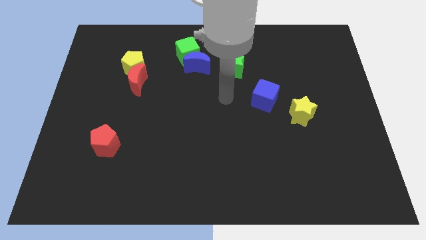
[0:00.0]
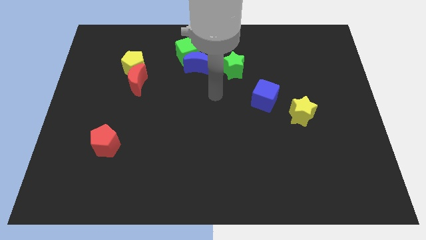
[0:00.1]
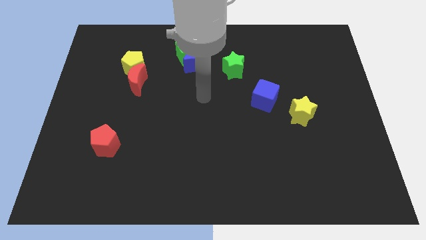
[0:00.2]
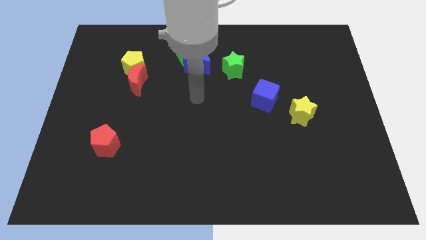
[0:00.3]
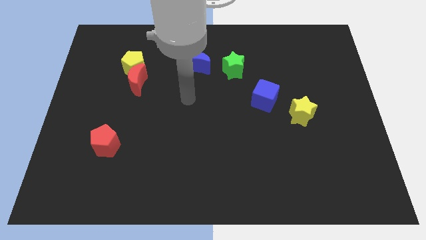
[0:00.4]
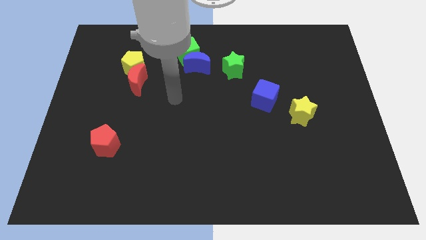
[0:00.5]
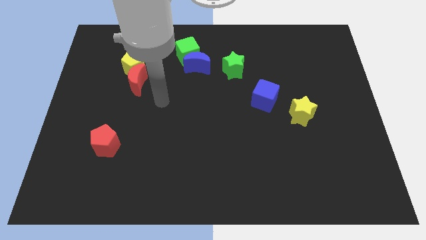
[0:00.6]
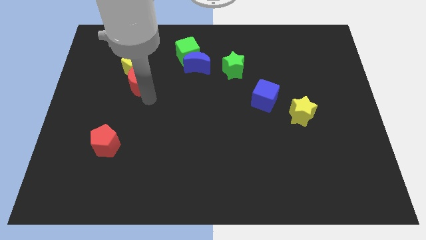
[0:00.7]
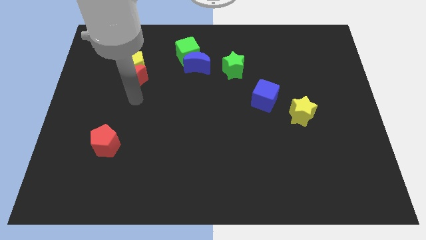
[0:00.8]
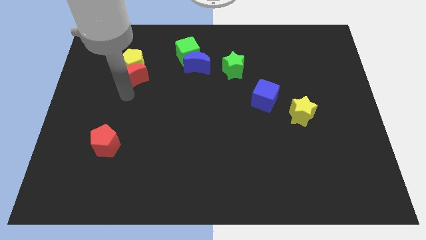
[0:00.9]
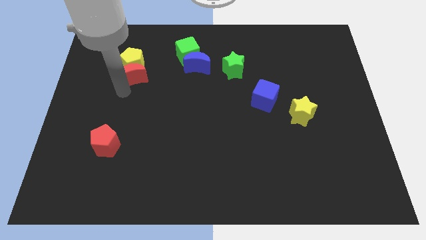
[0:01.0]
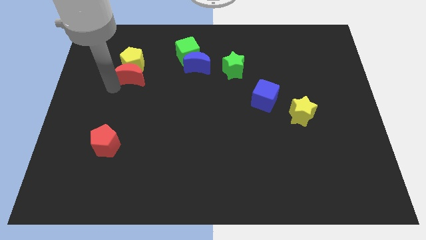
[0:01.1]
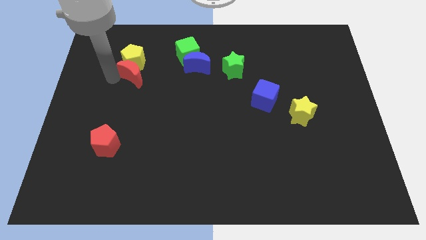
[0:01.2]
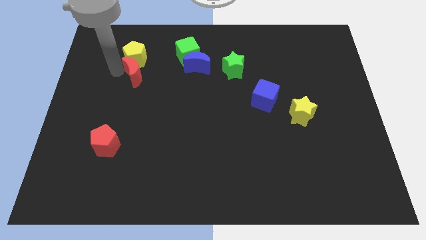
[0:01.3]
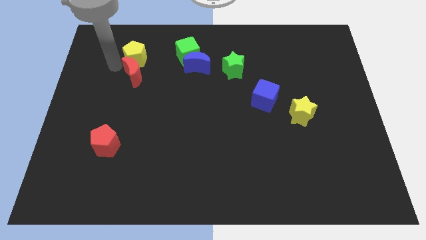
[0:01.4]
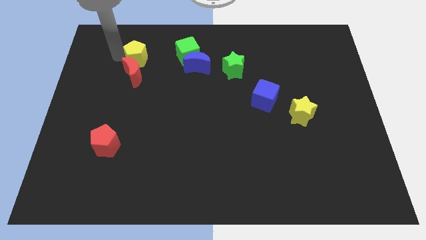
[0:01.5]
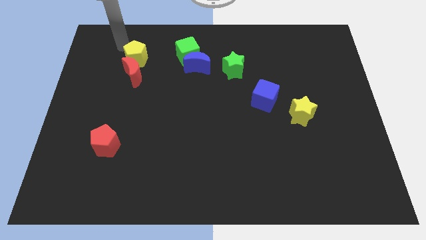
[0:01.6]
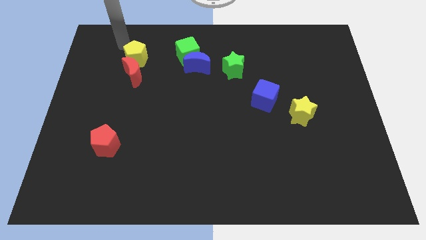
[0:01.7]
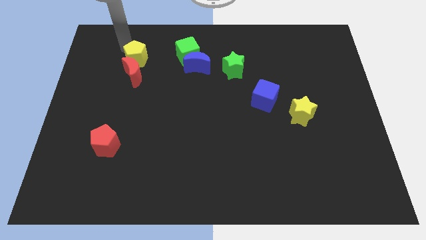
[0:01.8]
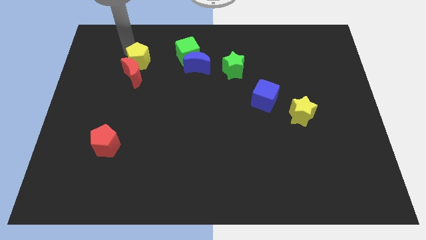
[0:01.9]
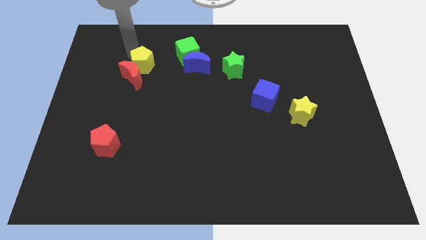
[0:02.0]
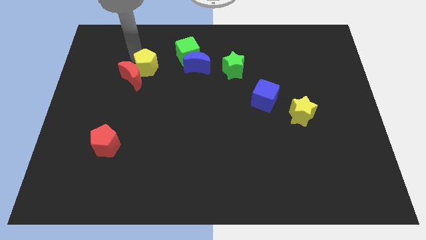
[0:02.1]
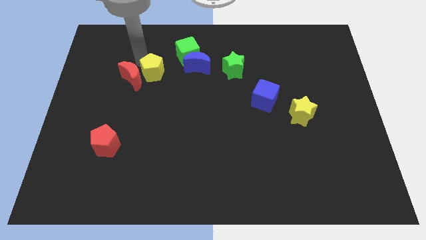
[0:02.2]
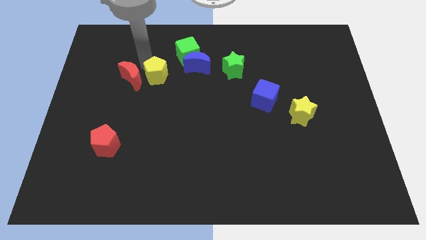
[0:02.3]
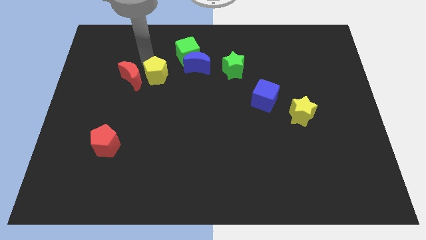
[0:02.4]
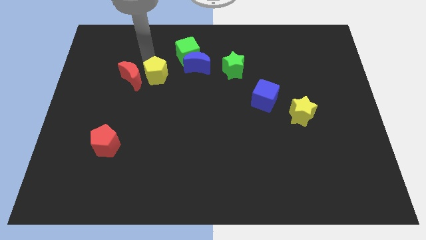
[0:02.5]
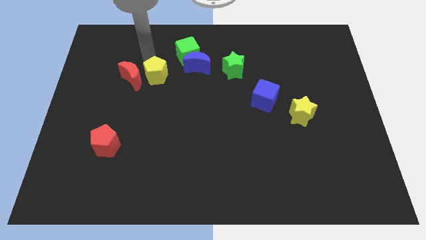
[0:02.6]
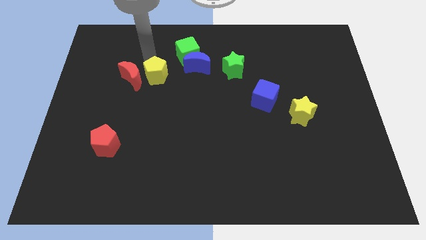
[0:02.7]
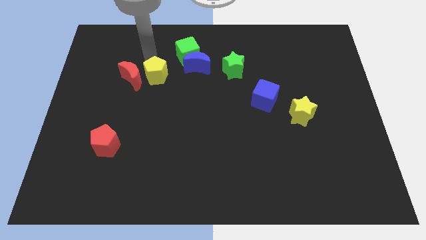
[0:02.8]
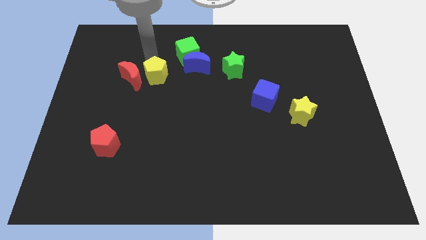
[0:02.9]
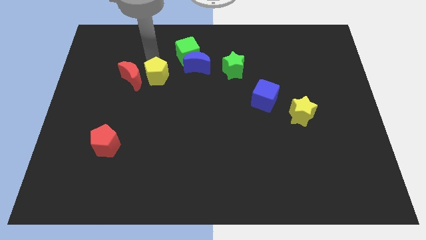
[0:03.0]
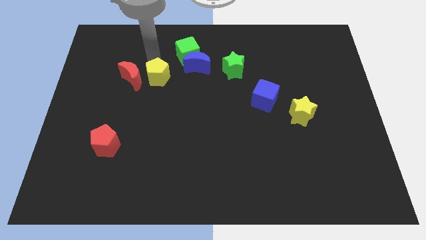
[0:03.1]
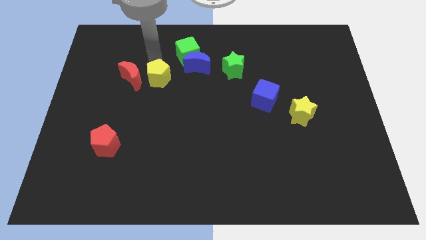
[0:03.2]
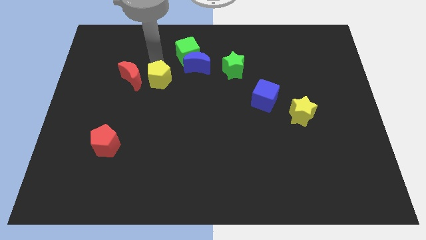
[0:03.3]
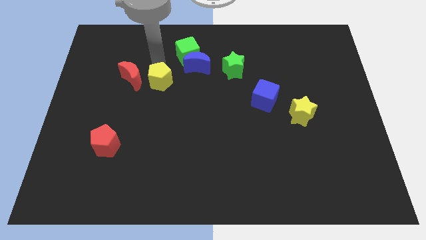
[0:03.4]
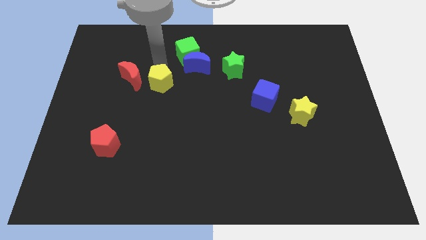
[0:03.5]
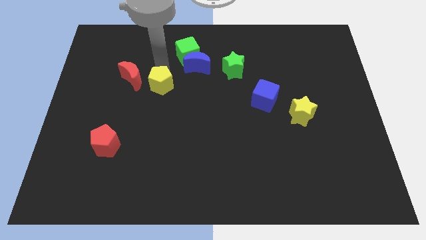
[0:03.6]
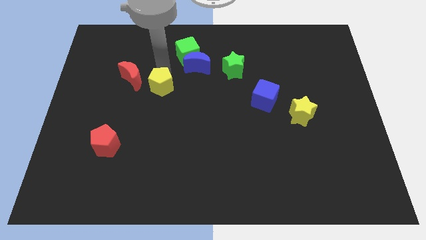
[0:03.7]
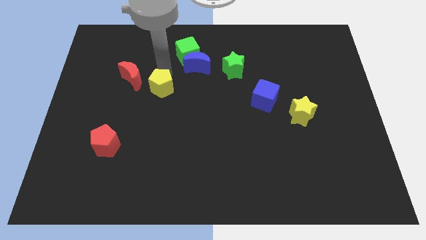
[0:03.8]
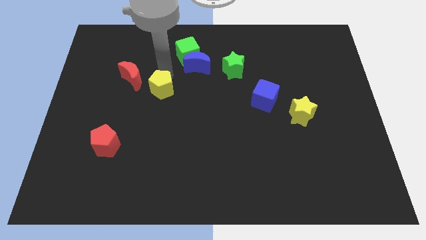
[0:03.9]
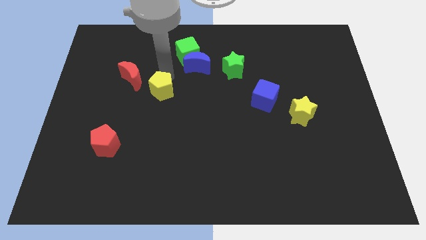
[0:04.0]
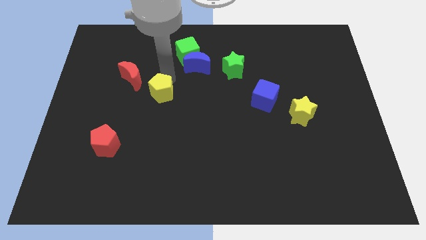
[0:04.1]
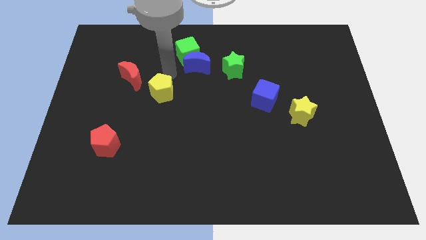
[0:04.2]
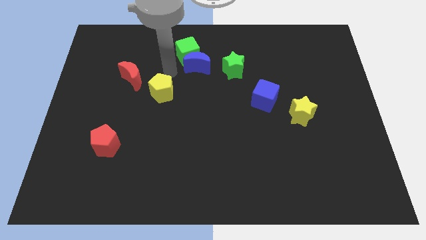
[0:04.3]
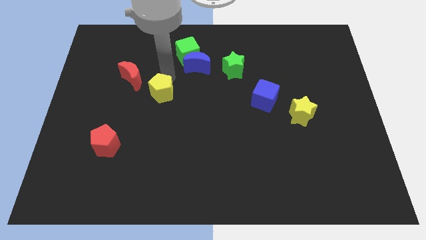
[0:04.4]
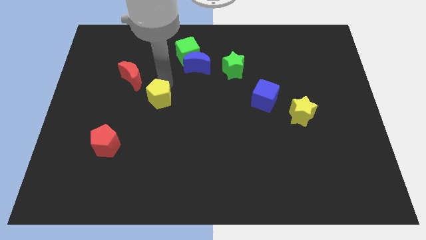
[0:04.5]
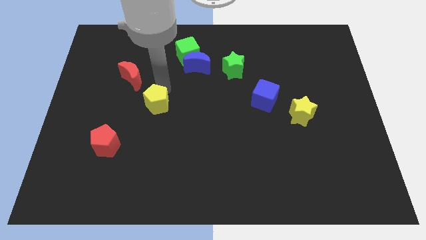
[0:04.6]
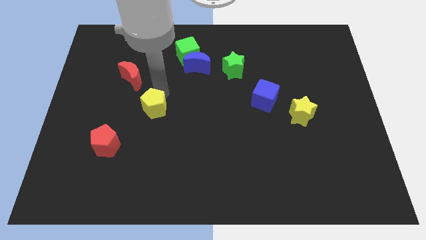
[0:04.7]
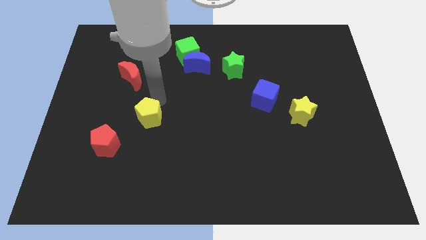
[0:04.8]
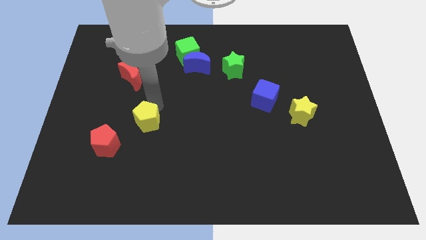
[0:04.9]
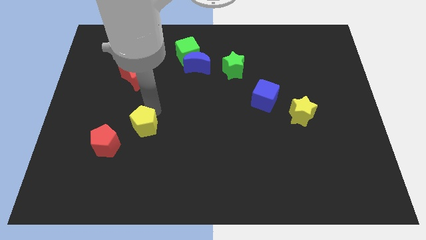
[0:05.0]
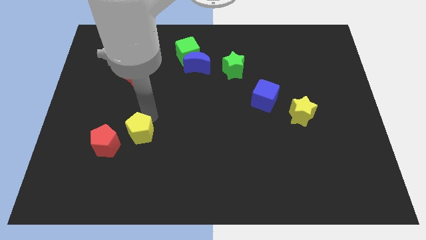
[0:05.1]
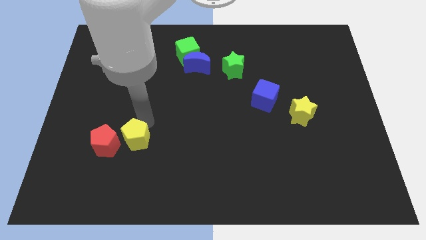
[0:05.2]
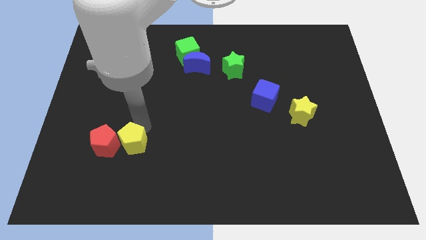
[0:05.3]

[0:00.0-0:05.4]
put the yellow pentagon to the bottom right side of the red pentagon

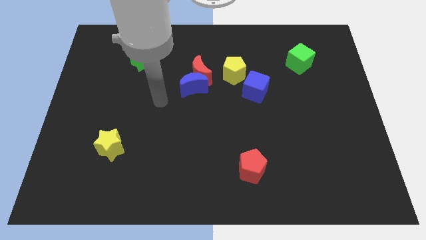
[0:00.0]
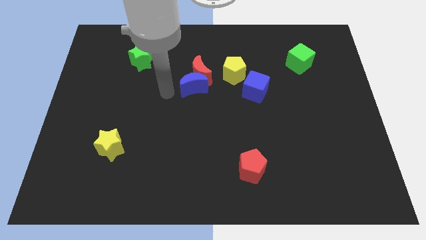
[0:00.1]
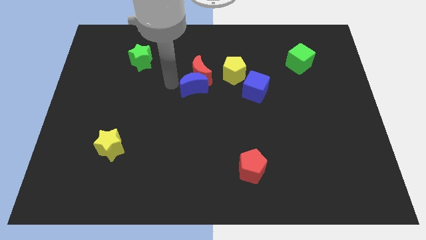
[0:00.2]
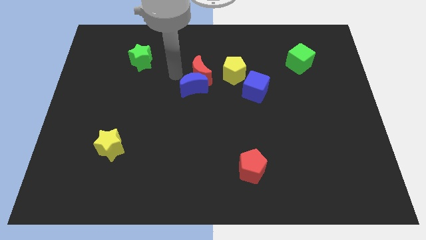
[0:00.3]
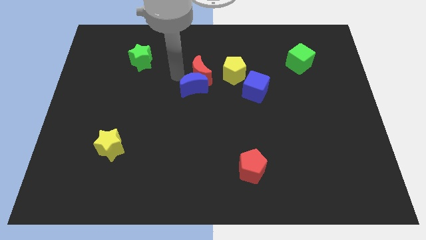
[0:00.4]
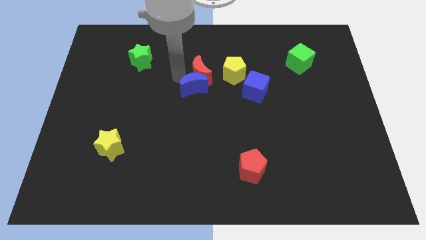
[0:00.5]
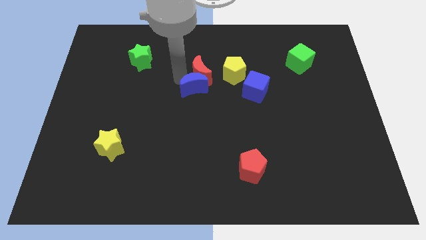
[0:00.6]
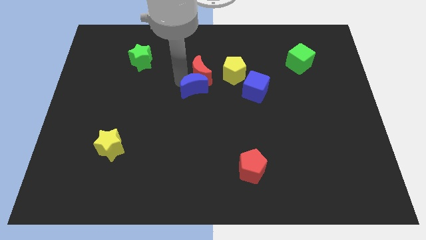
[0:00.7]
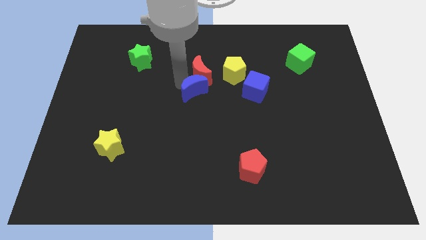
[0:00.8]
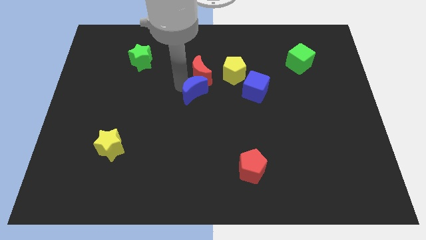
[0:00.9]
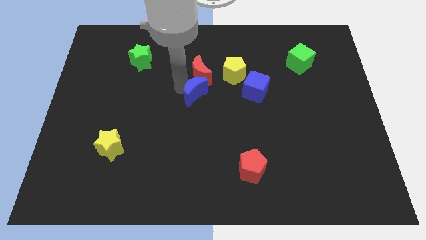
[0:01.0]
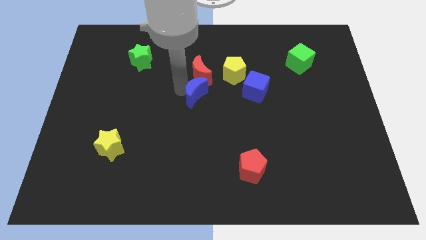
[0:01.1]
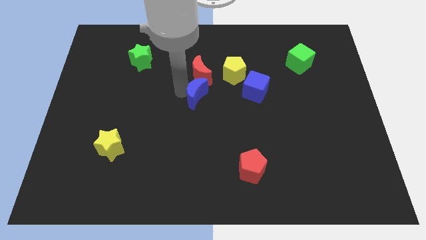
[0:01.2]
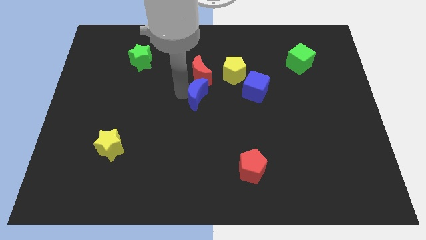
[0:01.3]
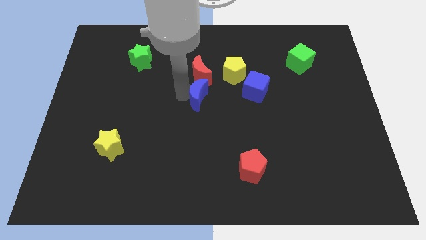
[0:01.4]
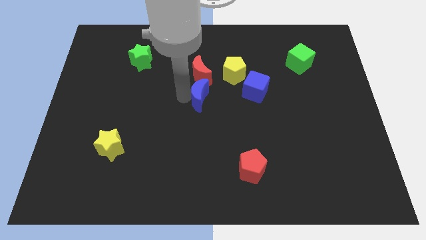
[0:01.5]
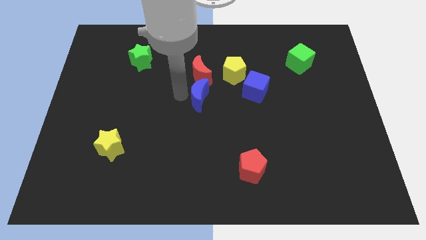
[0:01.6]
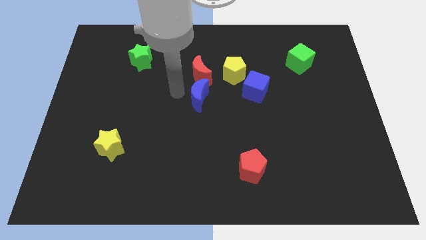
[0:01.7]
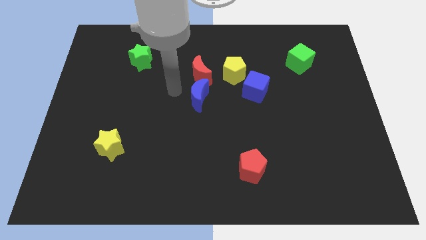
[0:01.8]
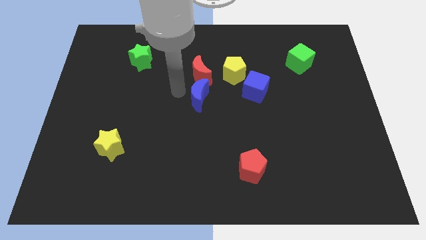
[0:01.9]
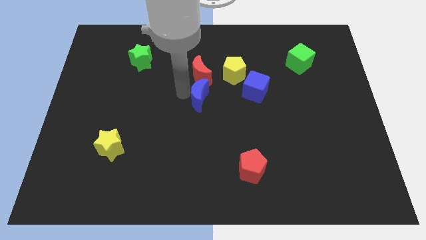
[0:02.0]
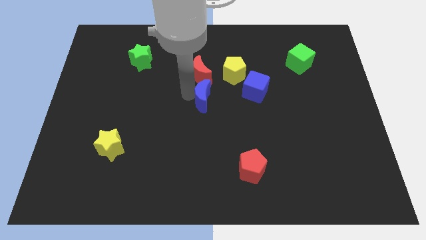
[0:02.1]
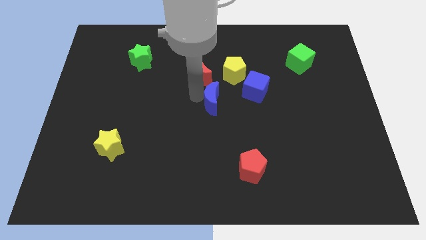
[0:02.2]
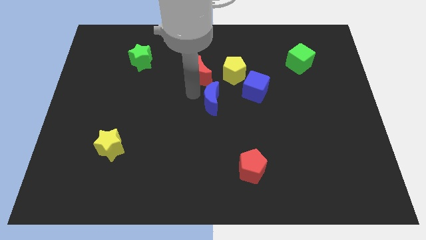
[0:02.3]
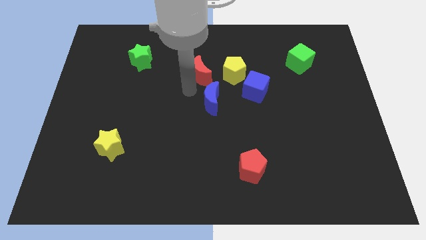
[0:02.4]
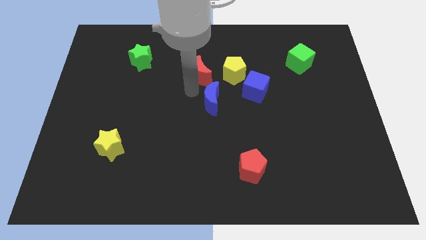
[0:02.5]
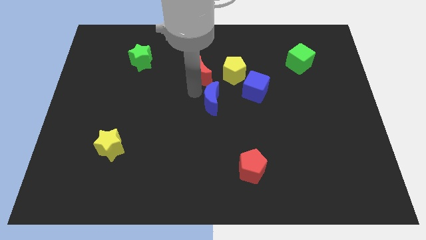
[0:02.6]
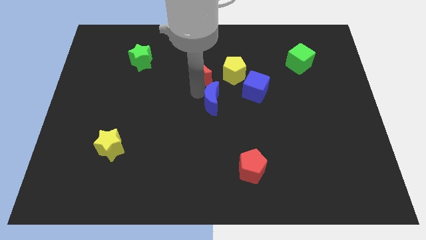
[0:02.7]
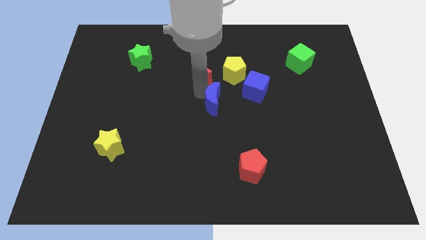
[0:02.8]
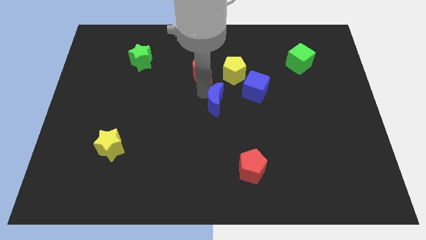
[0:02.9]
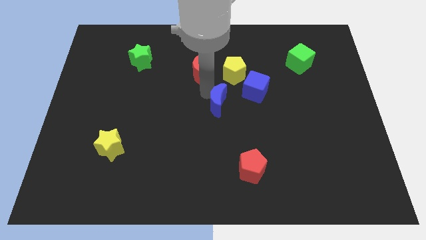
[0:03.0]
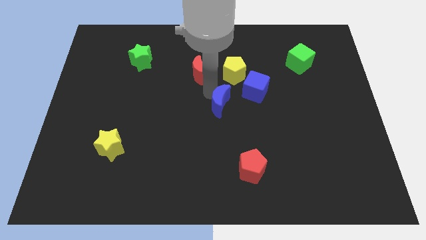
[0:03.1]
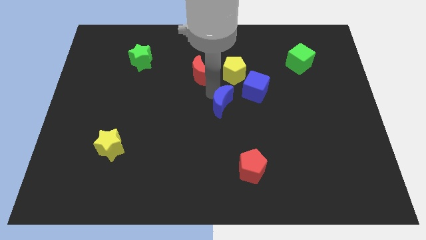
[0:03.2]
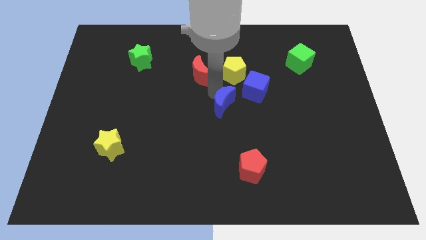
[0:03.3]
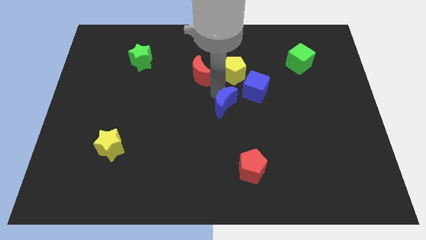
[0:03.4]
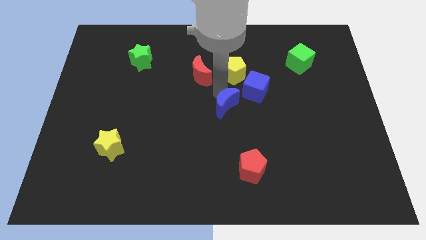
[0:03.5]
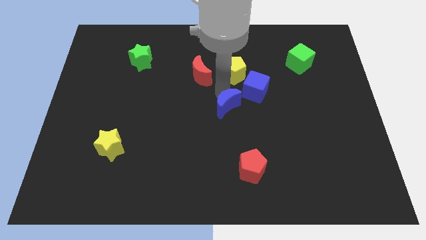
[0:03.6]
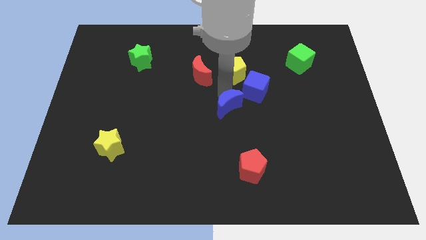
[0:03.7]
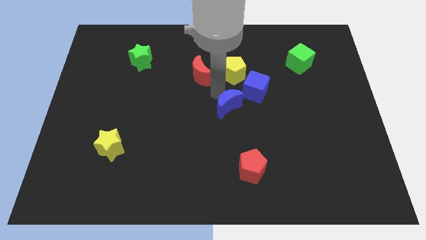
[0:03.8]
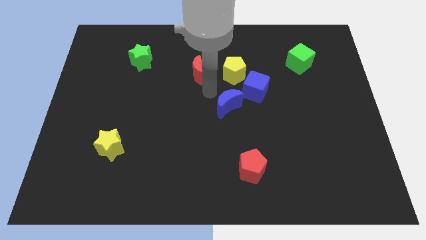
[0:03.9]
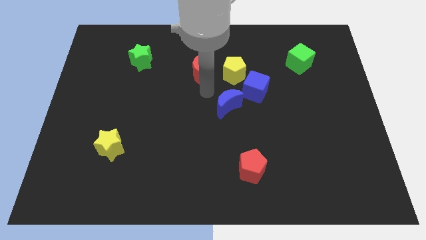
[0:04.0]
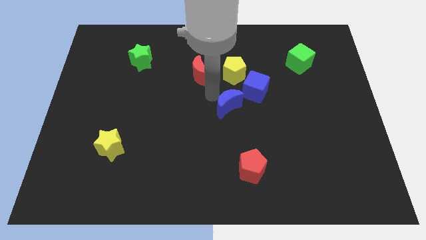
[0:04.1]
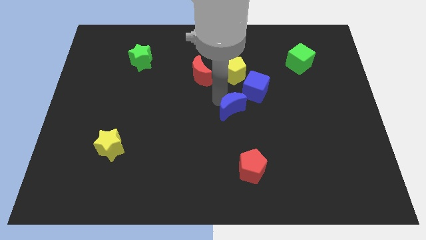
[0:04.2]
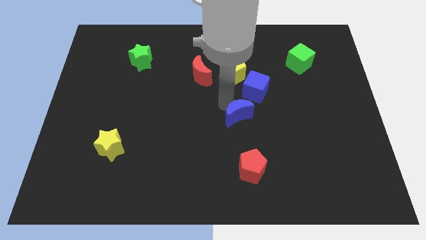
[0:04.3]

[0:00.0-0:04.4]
put the blue moon to the bottom side of the blue cube
